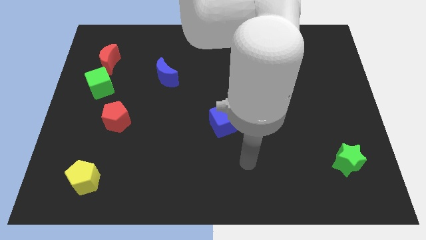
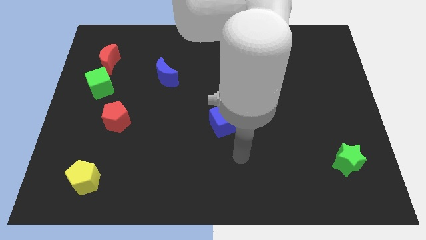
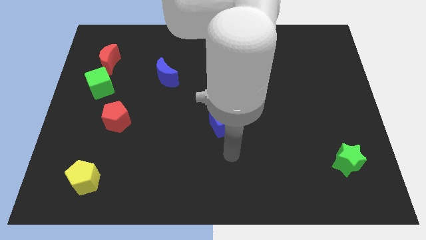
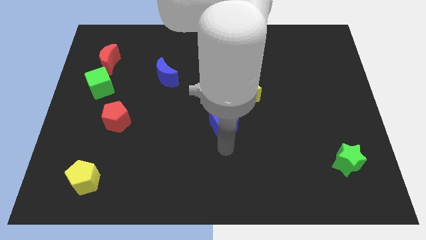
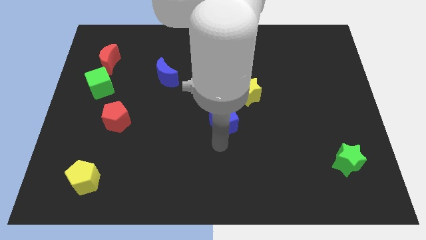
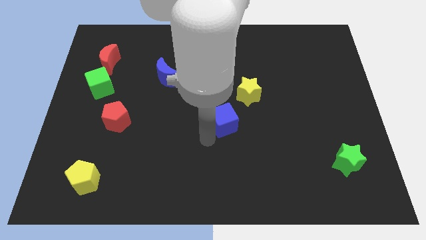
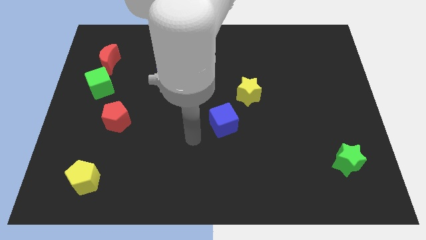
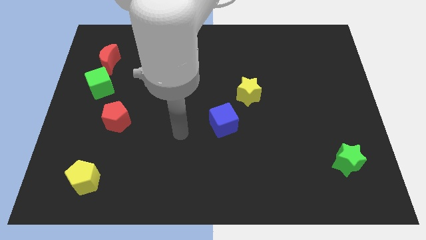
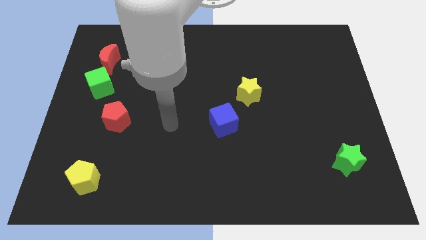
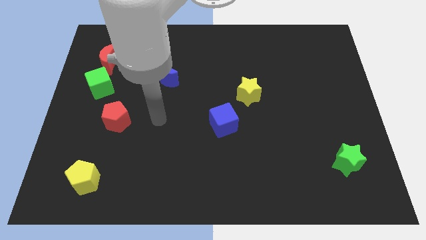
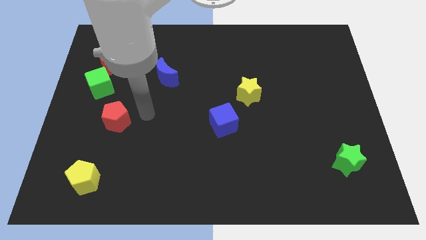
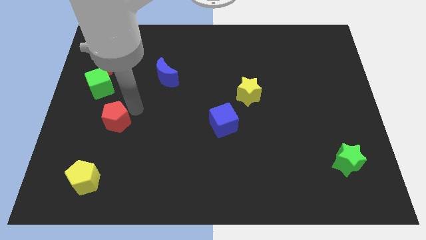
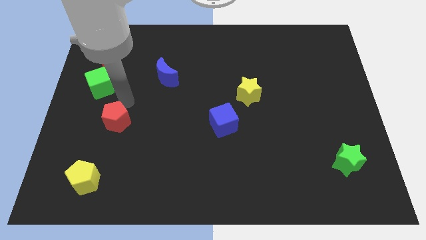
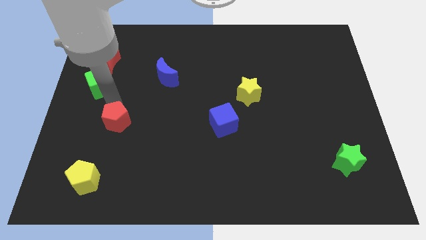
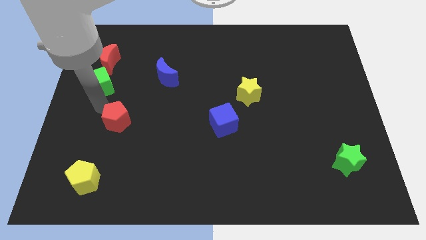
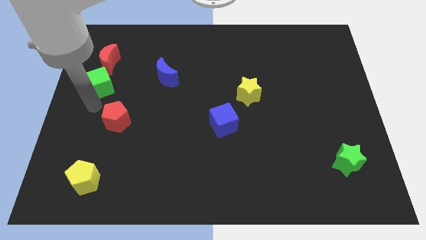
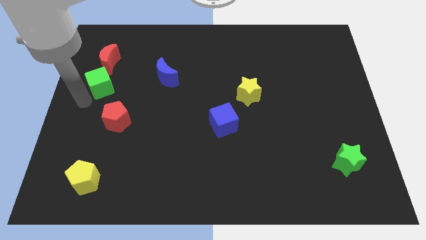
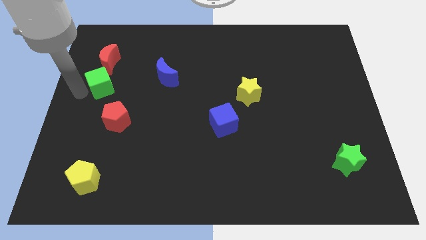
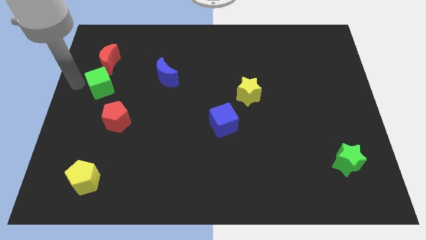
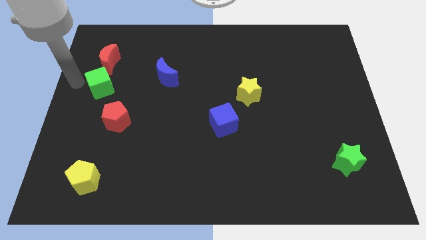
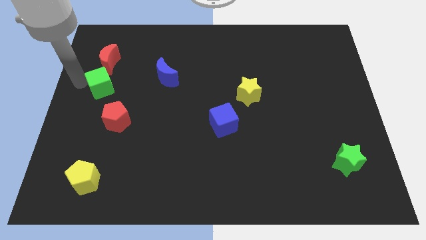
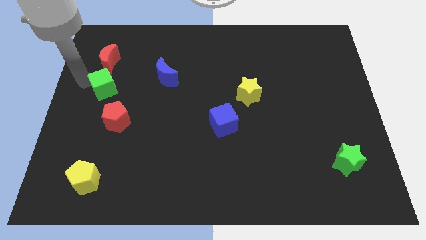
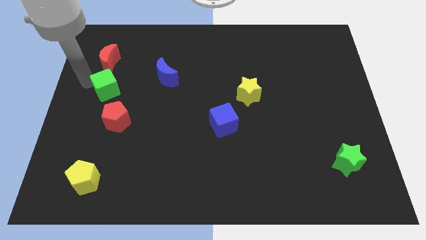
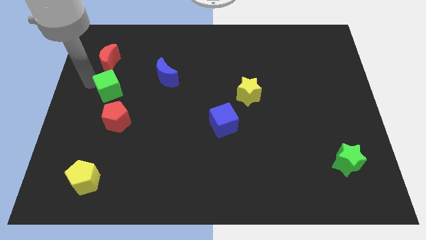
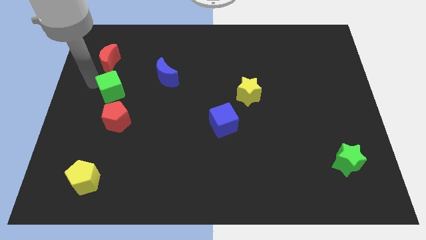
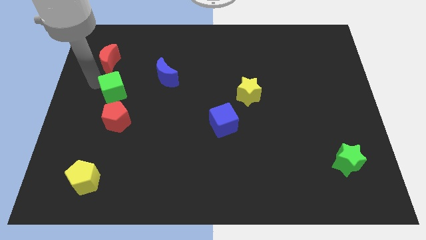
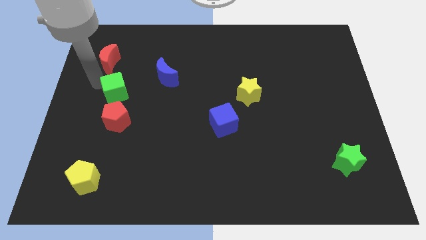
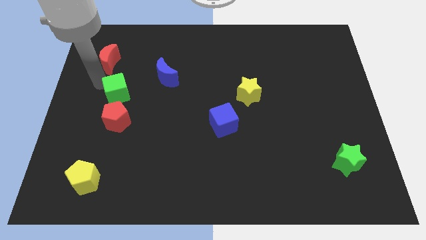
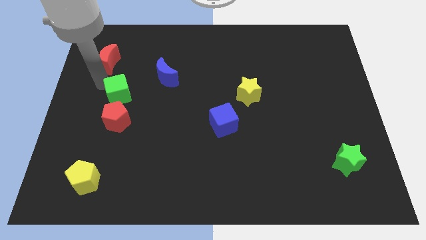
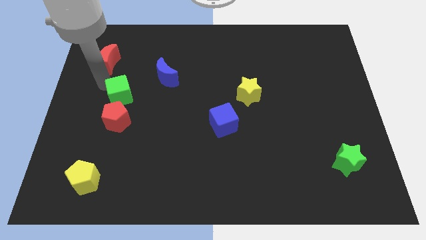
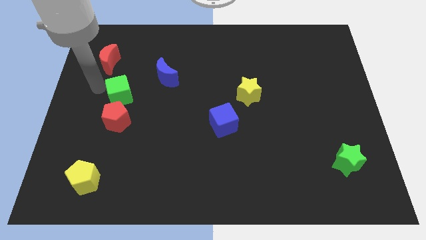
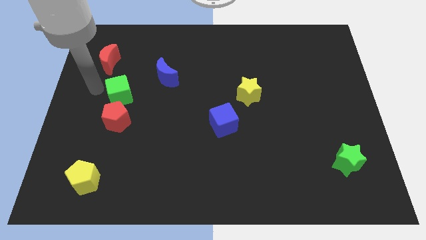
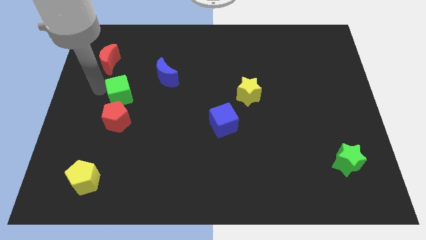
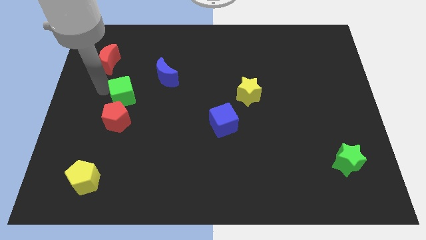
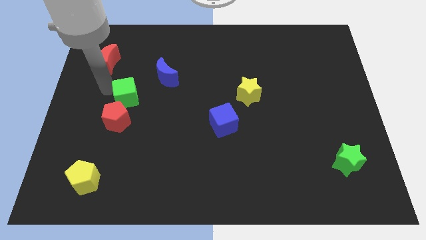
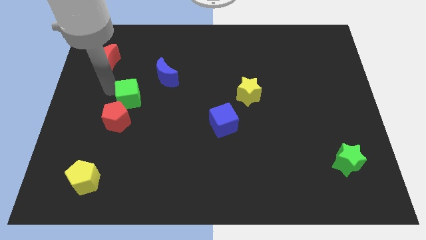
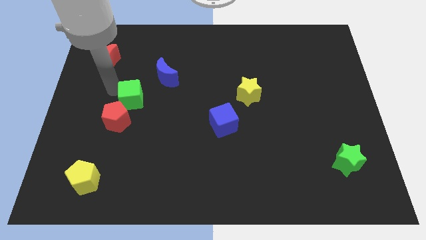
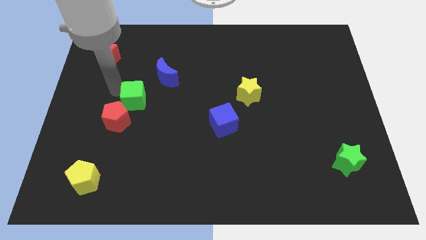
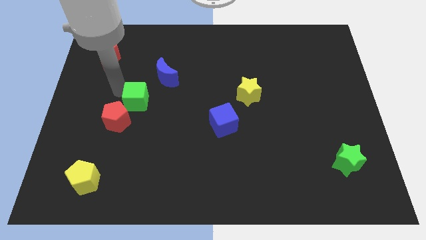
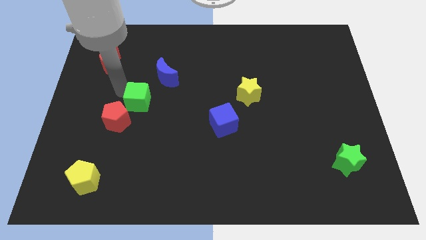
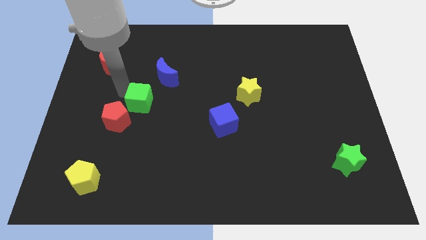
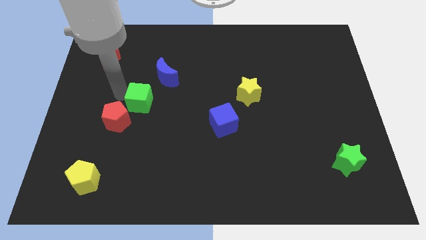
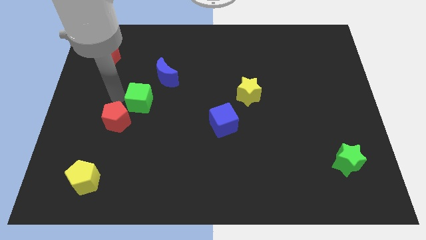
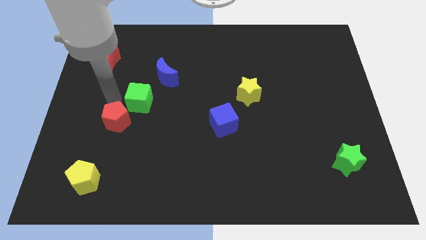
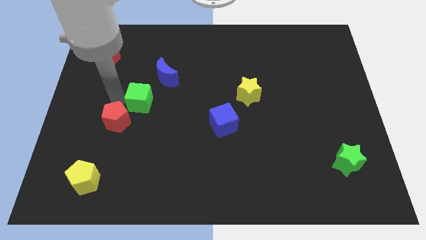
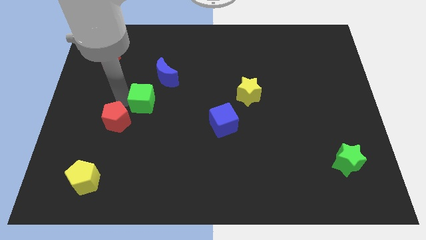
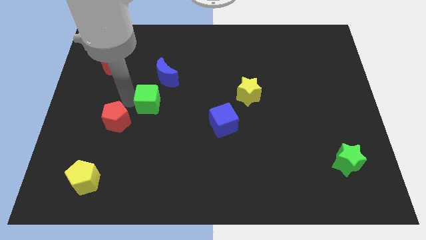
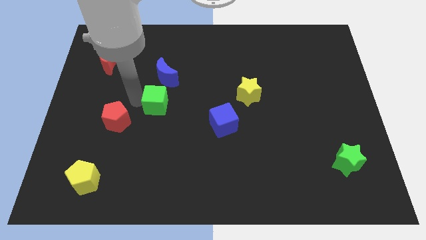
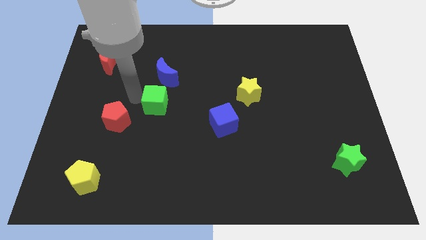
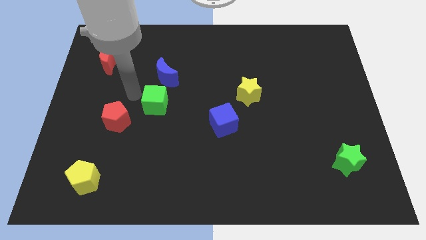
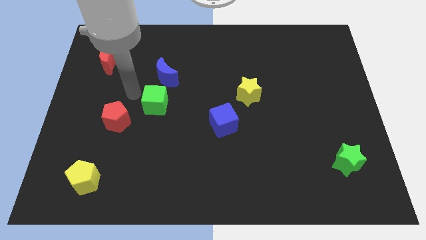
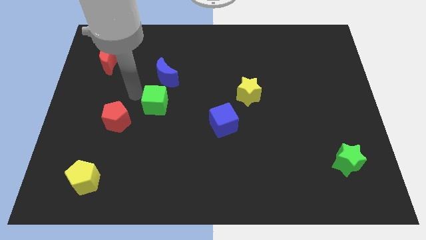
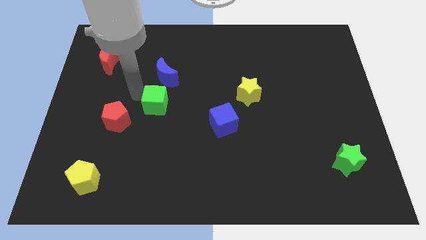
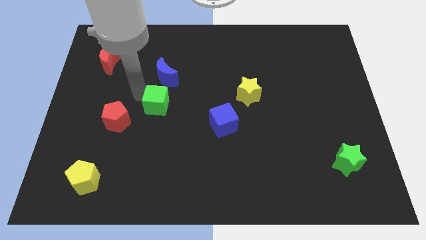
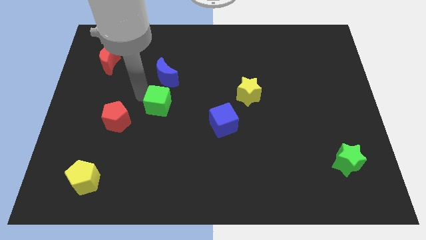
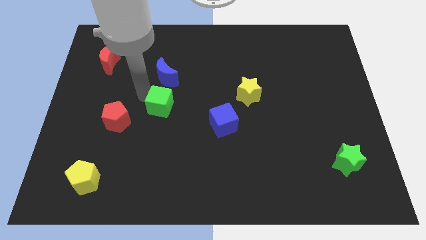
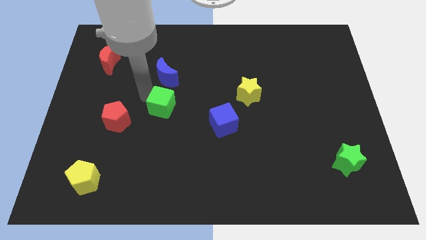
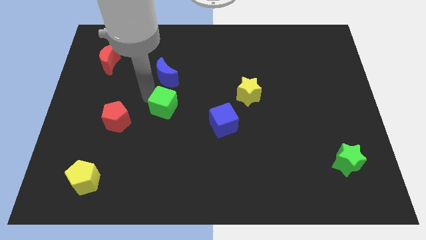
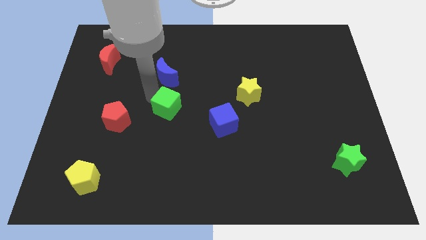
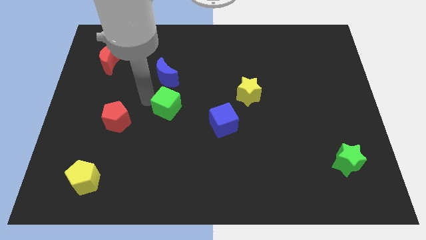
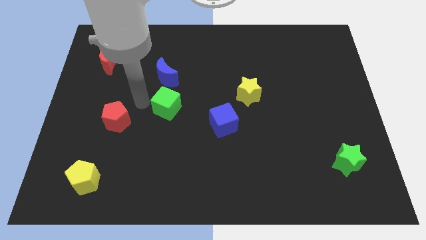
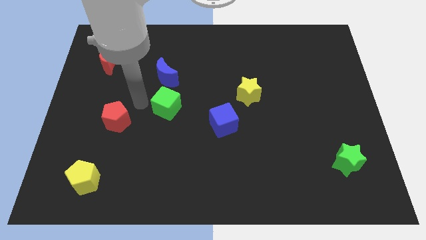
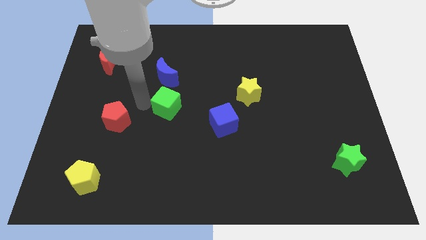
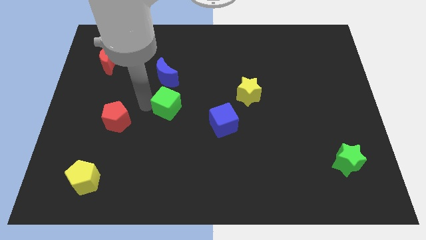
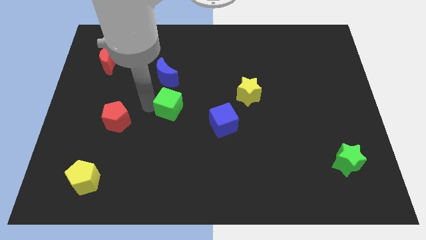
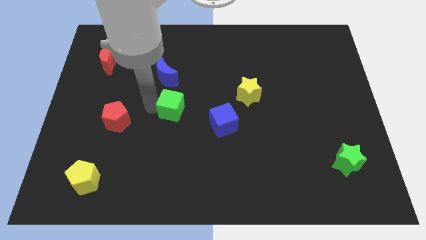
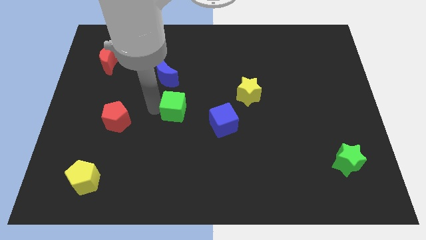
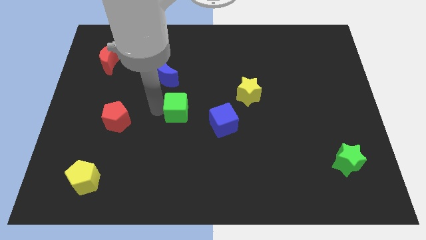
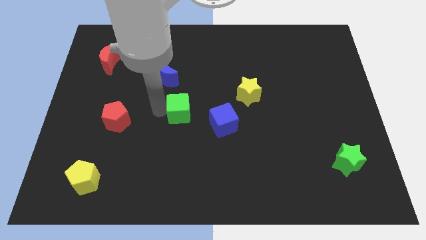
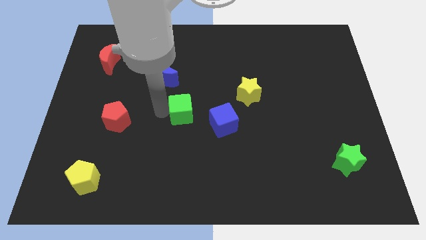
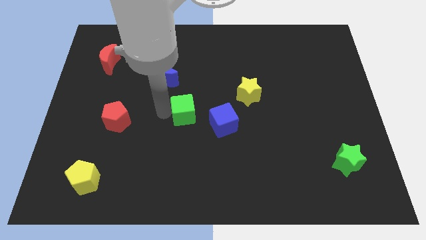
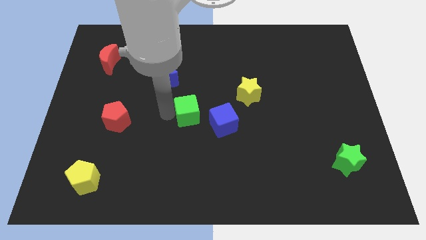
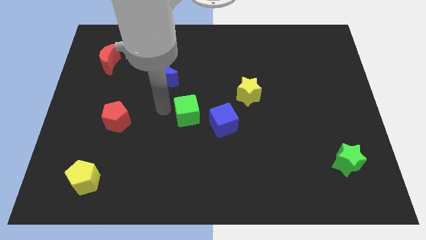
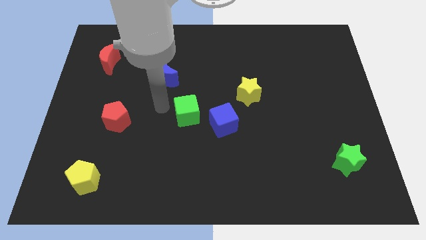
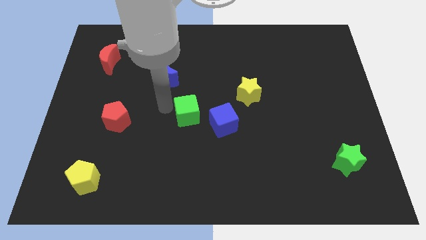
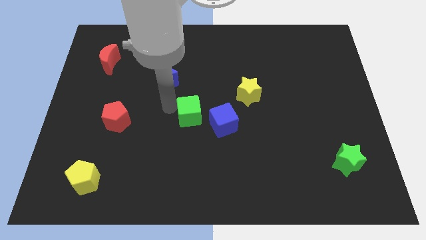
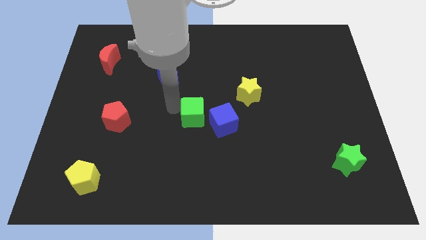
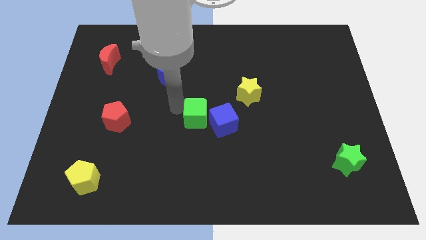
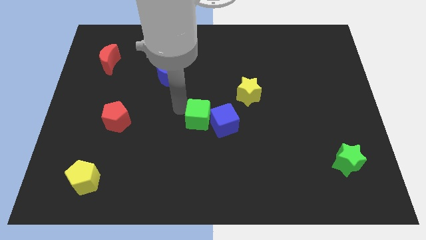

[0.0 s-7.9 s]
put the green cube next to the blue cube
